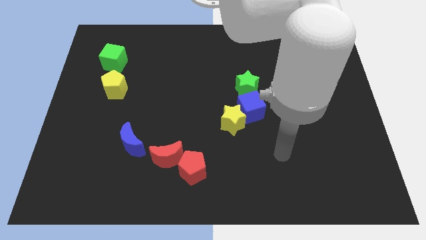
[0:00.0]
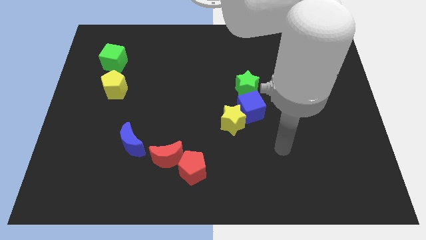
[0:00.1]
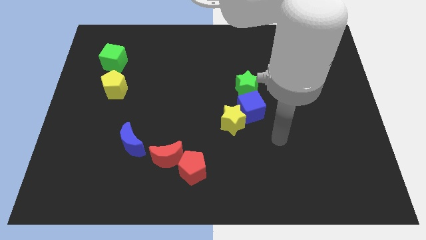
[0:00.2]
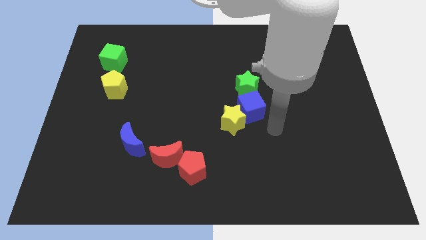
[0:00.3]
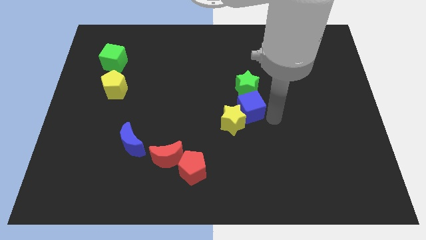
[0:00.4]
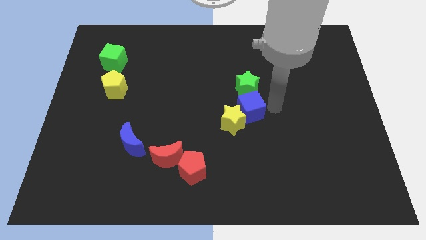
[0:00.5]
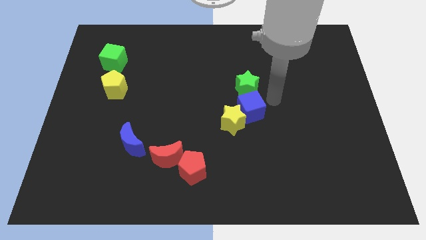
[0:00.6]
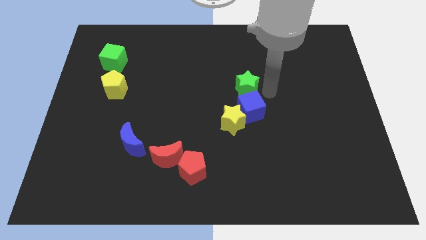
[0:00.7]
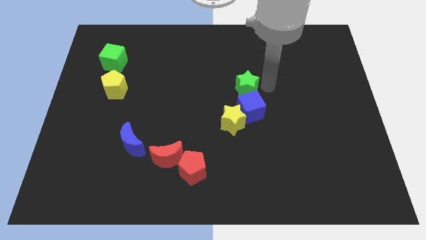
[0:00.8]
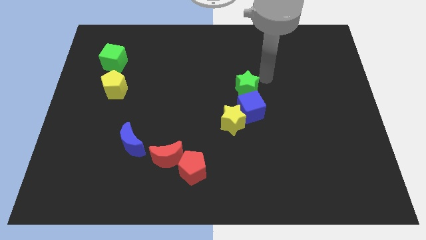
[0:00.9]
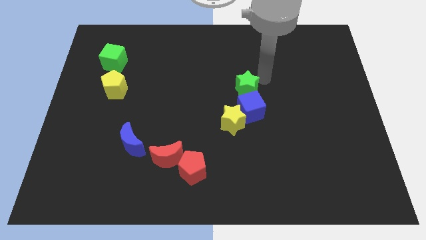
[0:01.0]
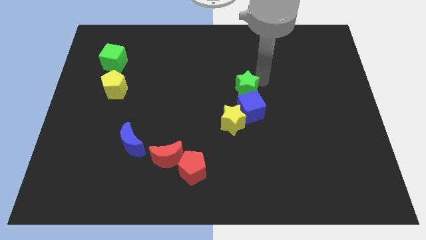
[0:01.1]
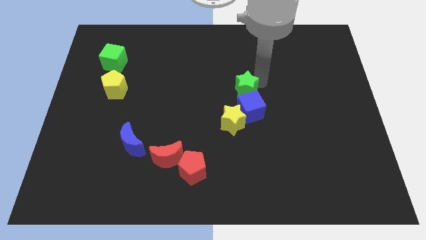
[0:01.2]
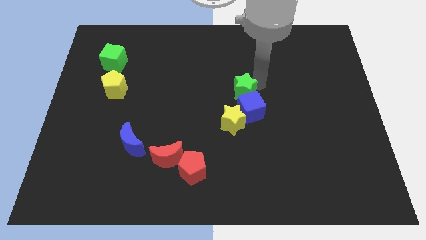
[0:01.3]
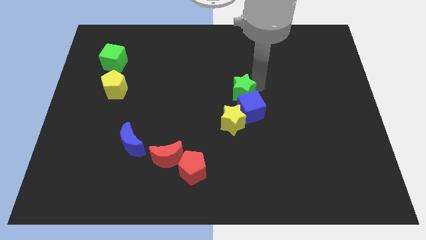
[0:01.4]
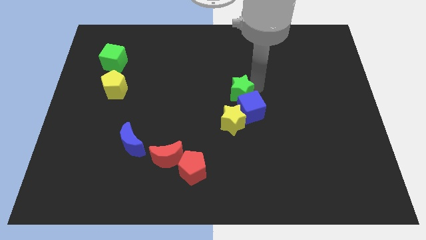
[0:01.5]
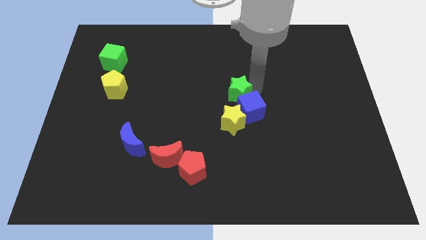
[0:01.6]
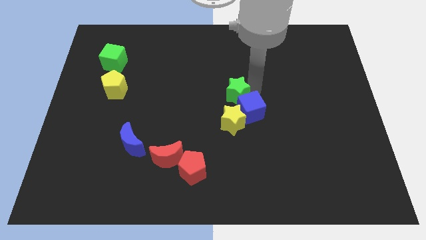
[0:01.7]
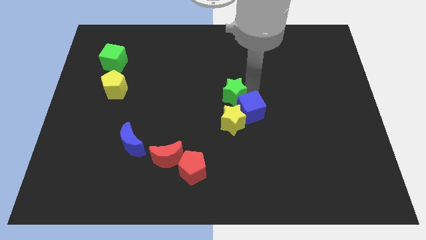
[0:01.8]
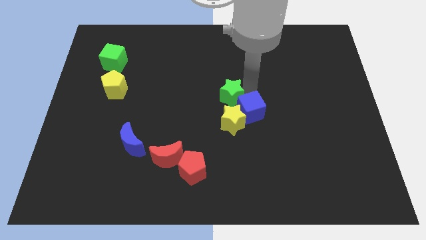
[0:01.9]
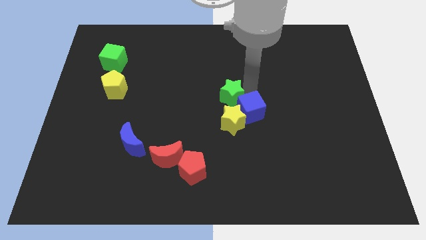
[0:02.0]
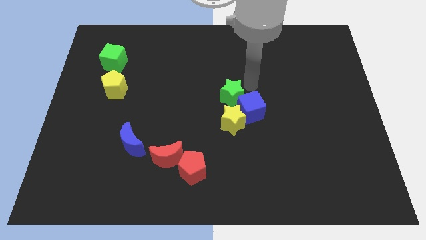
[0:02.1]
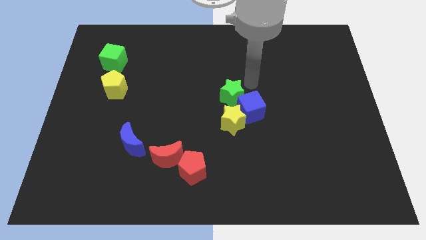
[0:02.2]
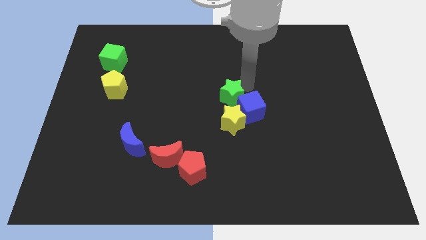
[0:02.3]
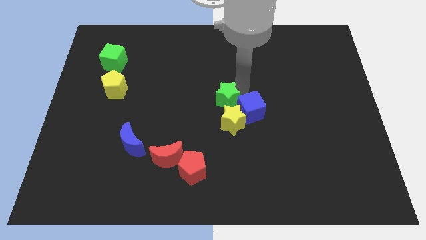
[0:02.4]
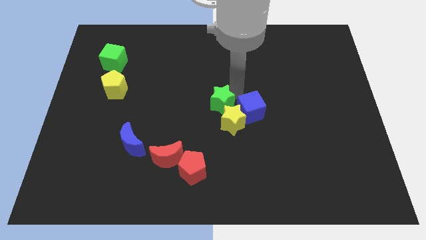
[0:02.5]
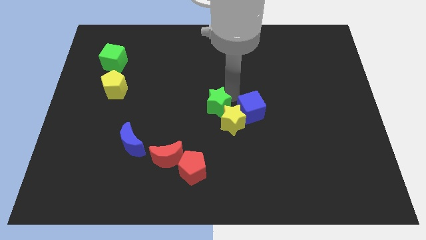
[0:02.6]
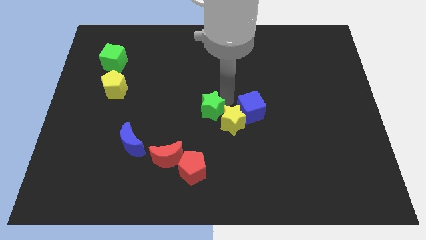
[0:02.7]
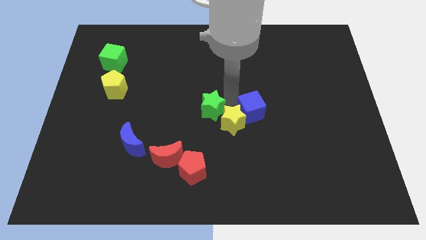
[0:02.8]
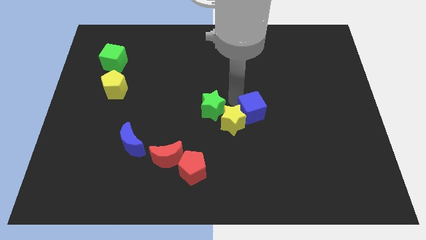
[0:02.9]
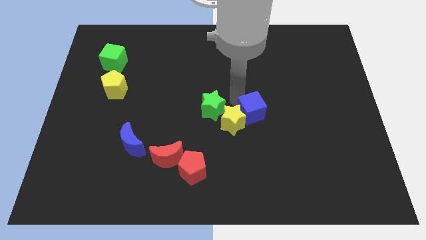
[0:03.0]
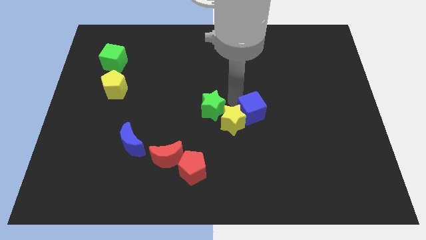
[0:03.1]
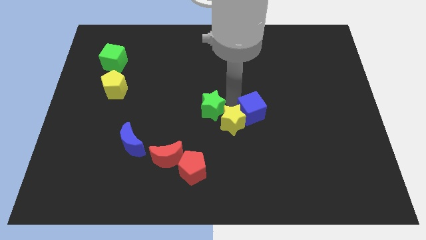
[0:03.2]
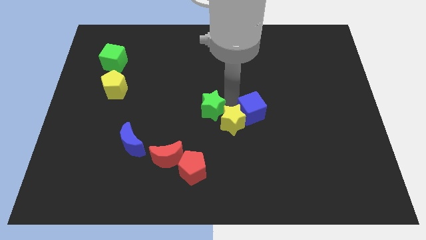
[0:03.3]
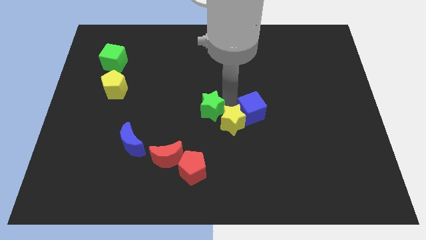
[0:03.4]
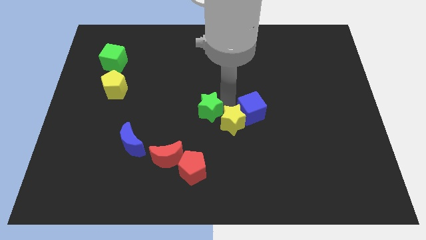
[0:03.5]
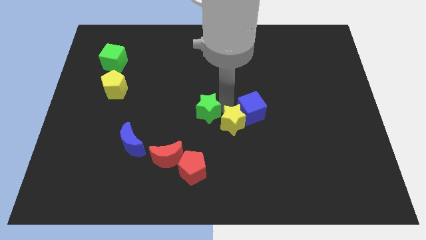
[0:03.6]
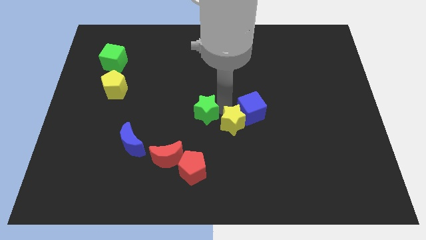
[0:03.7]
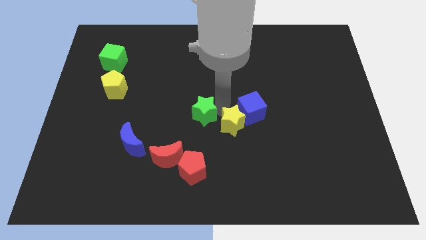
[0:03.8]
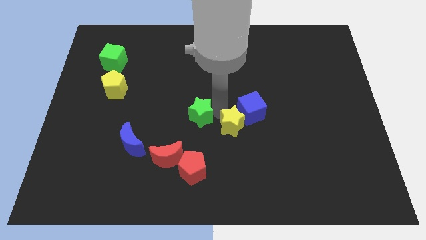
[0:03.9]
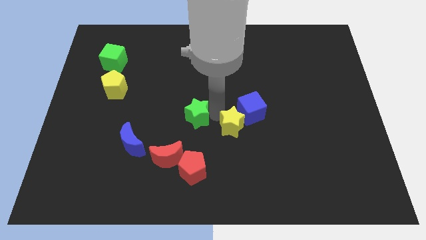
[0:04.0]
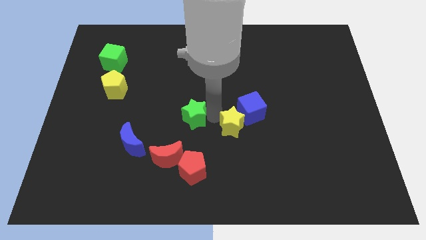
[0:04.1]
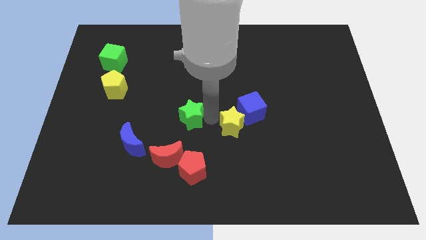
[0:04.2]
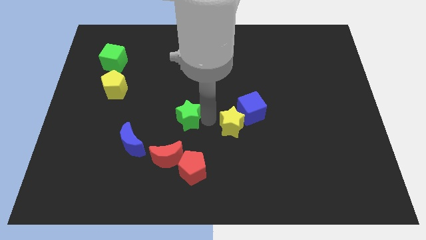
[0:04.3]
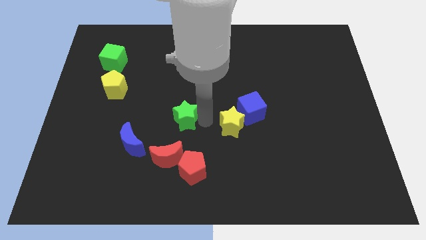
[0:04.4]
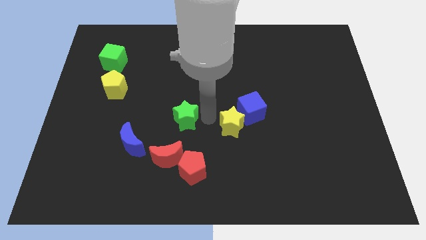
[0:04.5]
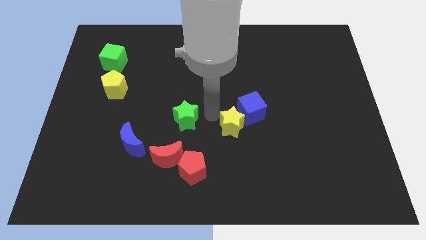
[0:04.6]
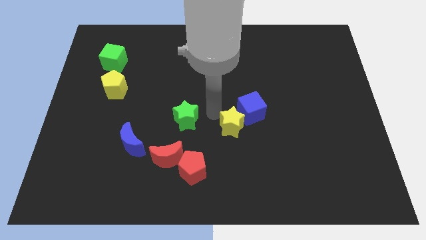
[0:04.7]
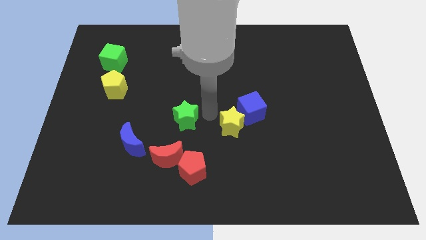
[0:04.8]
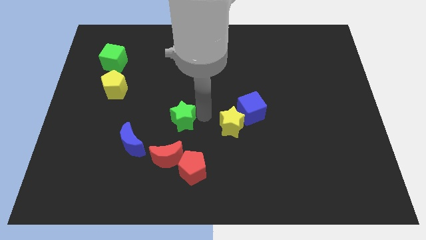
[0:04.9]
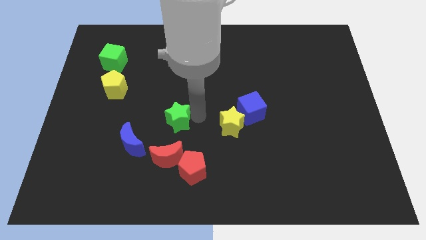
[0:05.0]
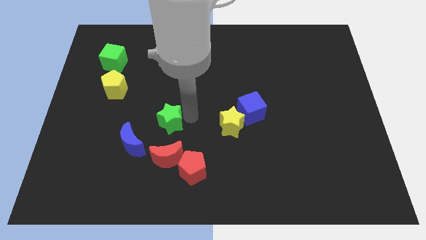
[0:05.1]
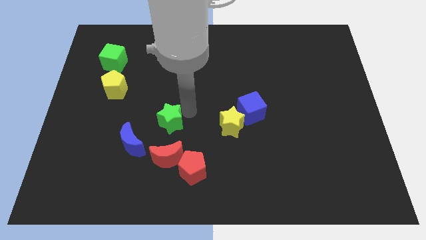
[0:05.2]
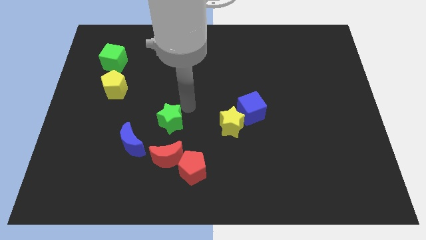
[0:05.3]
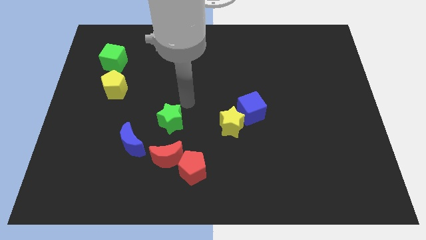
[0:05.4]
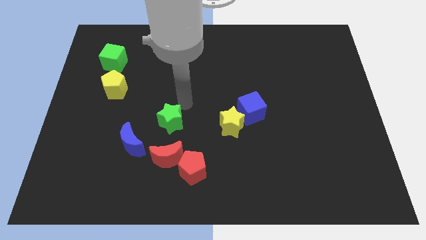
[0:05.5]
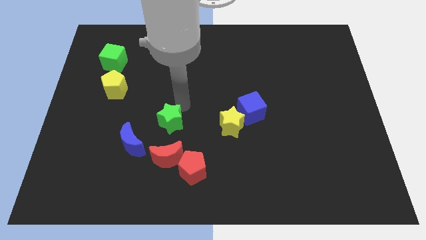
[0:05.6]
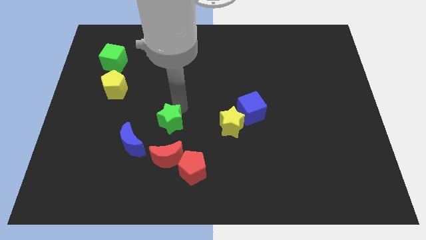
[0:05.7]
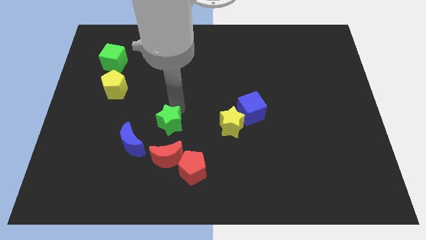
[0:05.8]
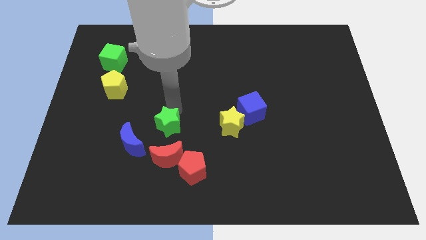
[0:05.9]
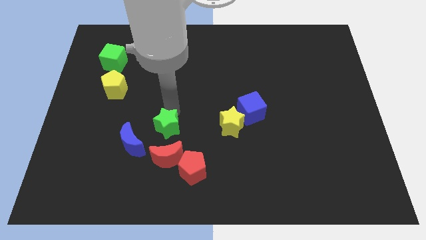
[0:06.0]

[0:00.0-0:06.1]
push the green star downwards and then to the left

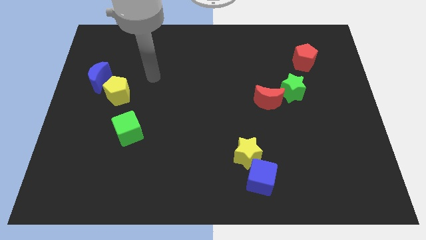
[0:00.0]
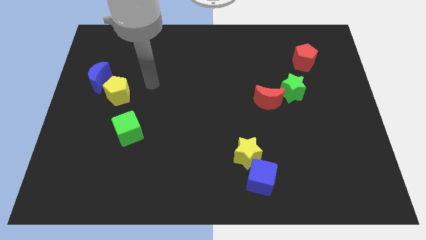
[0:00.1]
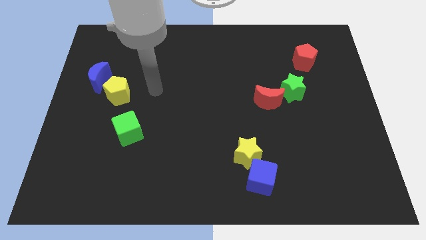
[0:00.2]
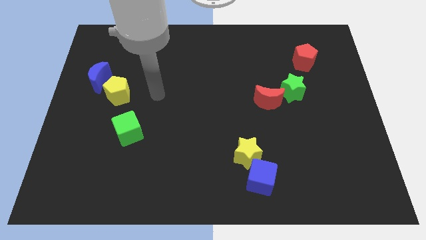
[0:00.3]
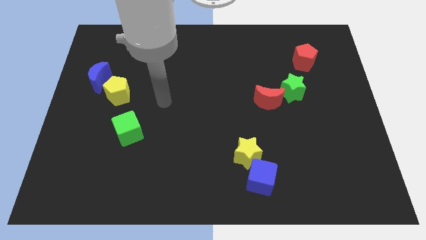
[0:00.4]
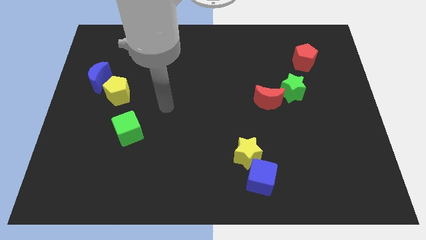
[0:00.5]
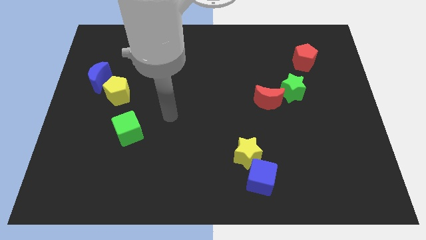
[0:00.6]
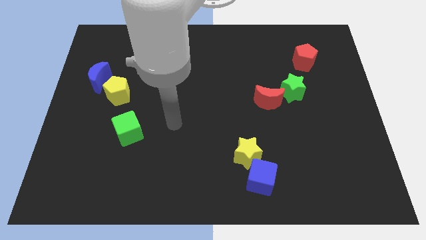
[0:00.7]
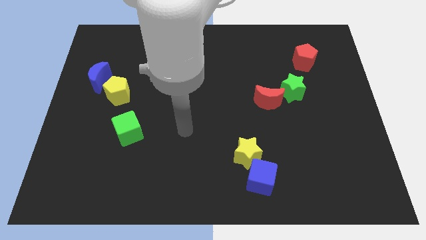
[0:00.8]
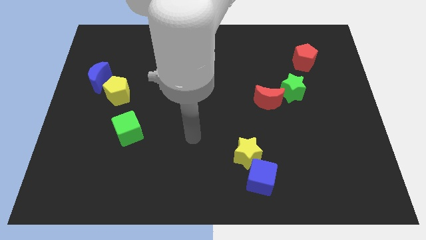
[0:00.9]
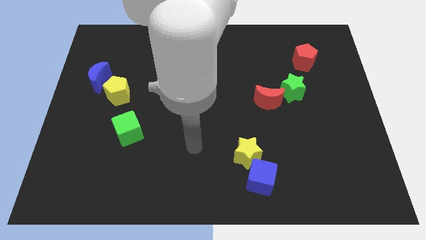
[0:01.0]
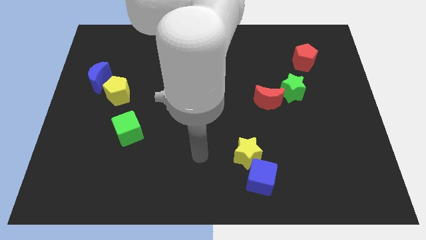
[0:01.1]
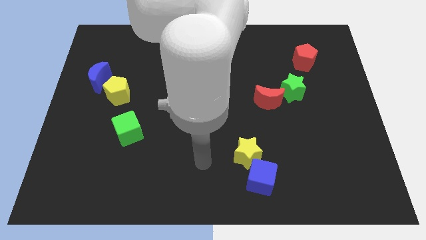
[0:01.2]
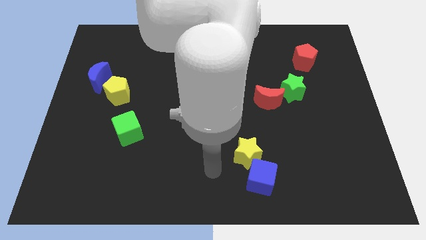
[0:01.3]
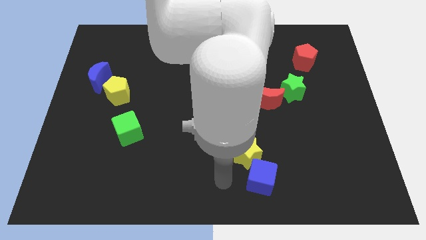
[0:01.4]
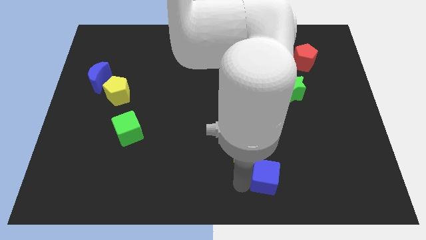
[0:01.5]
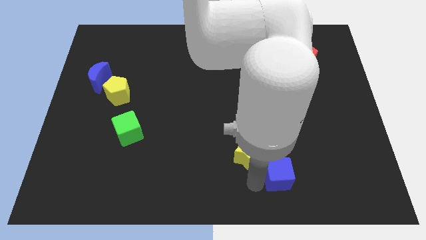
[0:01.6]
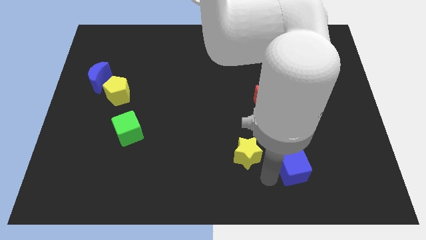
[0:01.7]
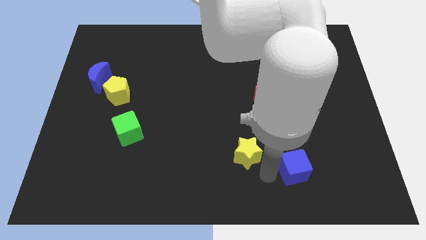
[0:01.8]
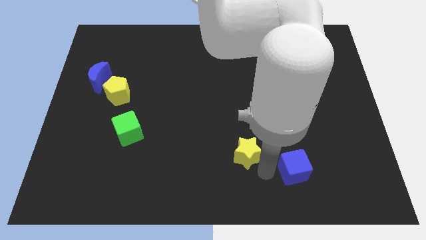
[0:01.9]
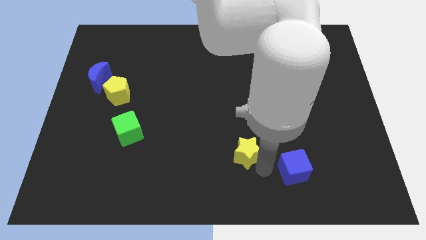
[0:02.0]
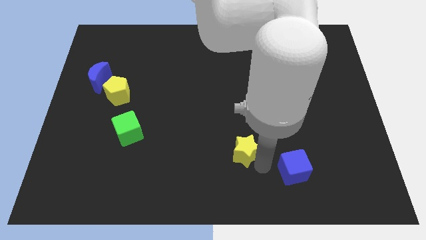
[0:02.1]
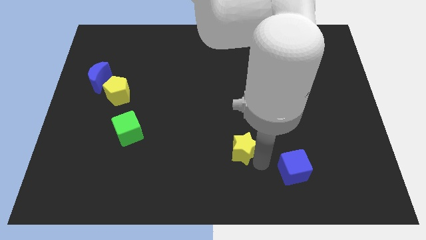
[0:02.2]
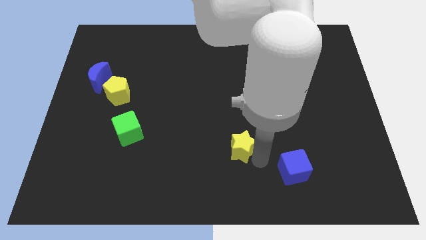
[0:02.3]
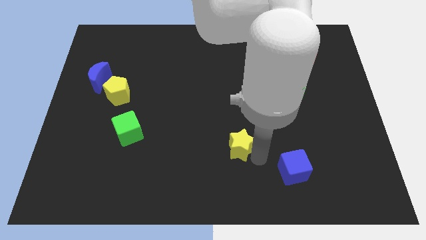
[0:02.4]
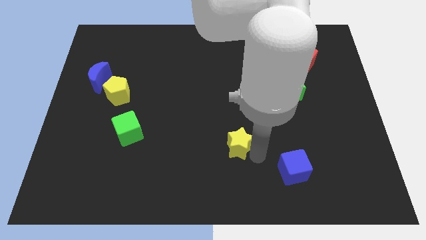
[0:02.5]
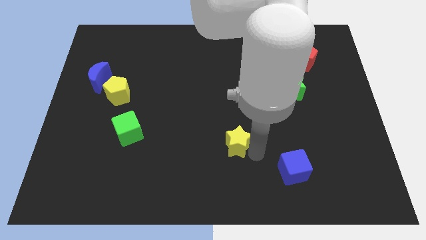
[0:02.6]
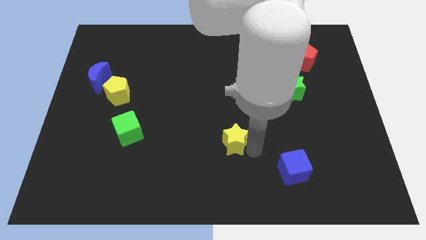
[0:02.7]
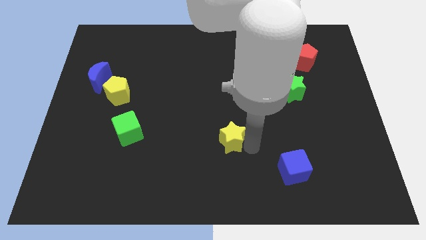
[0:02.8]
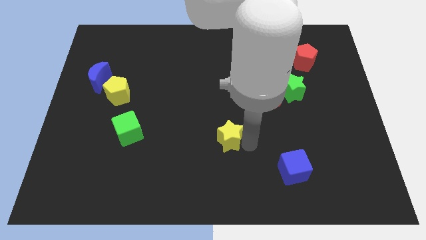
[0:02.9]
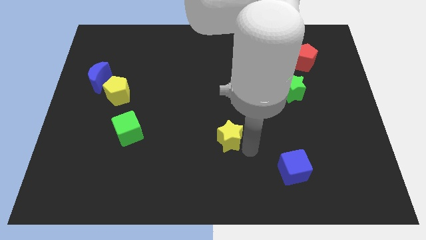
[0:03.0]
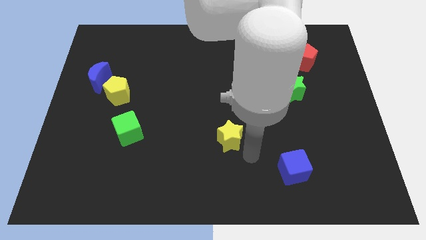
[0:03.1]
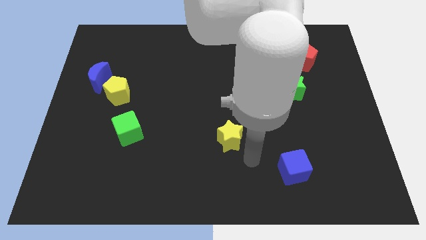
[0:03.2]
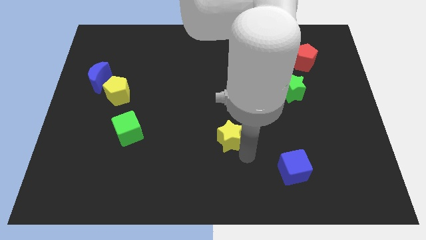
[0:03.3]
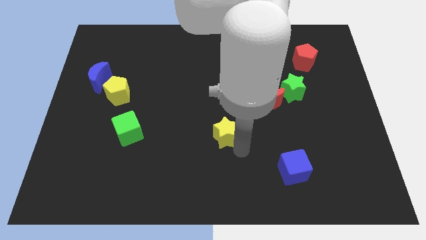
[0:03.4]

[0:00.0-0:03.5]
slightly move the yellow star up and to the left
